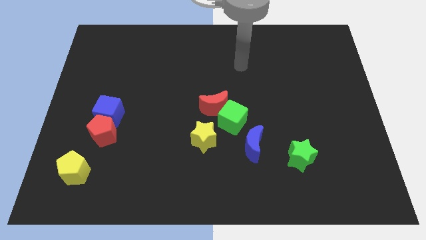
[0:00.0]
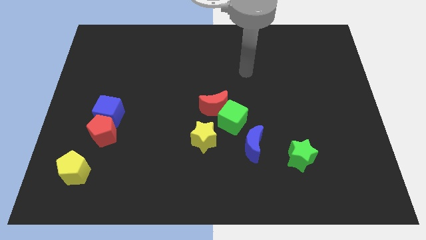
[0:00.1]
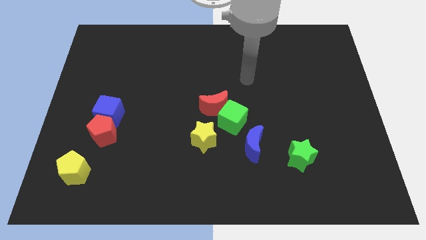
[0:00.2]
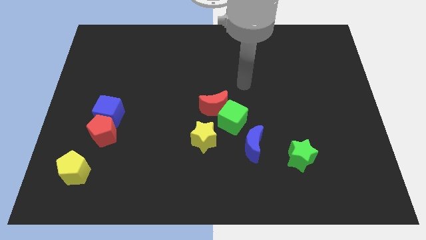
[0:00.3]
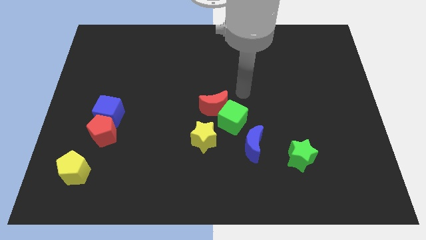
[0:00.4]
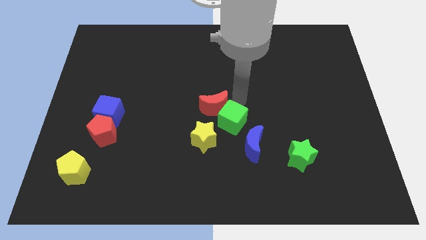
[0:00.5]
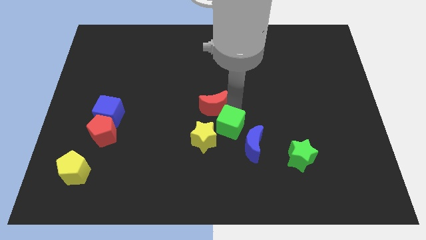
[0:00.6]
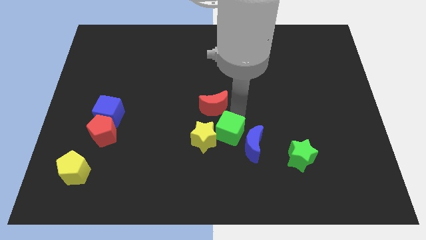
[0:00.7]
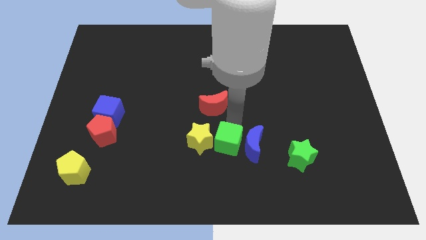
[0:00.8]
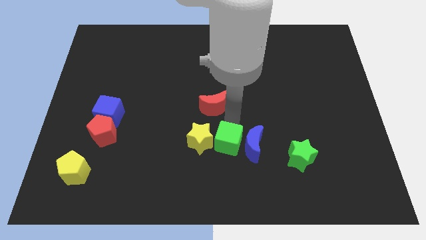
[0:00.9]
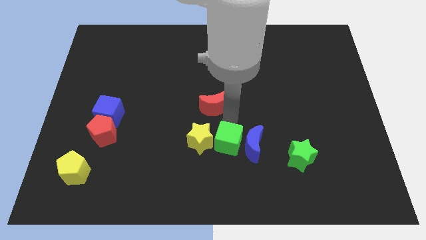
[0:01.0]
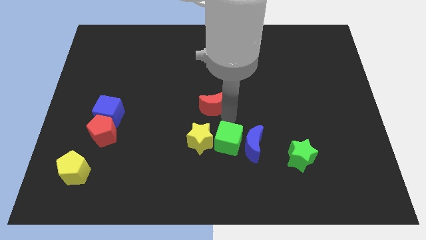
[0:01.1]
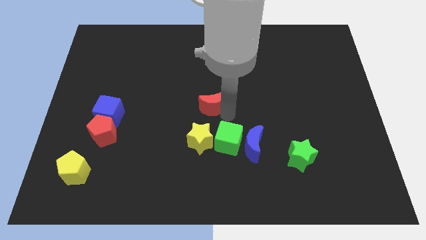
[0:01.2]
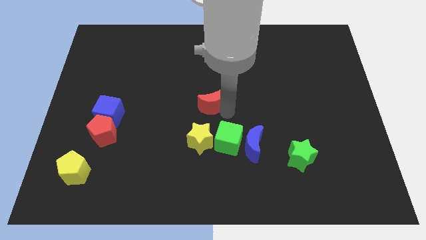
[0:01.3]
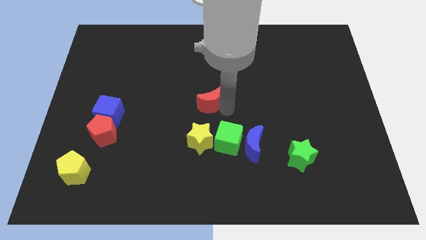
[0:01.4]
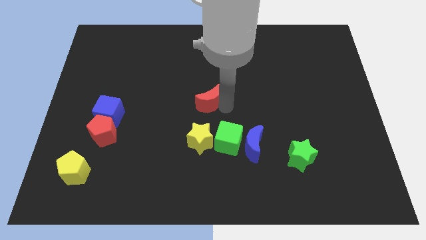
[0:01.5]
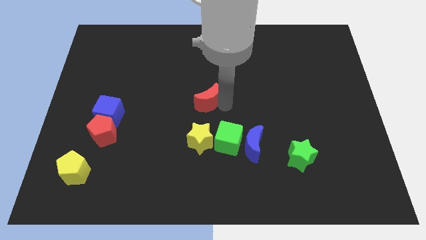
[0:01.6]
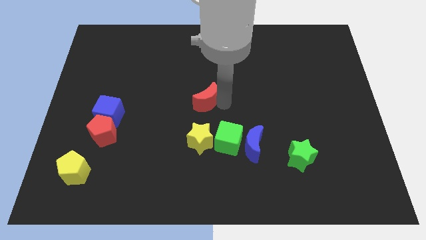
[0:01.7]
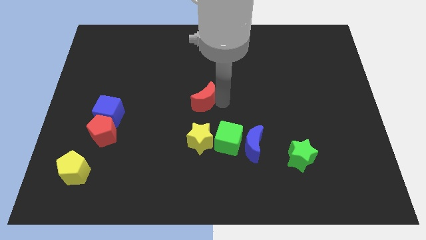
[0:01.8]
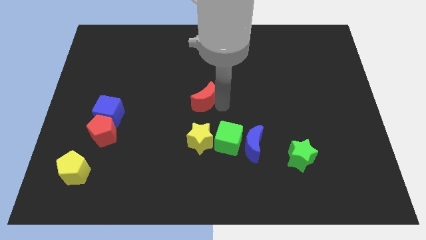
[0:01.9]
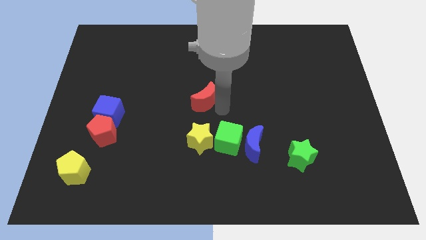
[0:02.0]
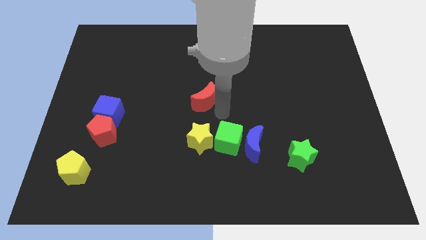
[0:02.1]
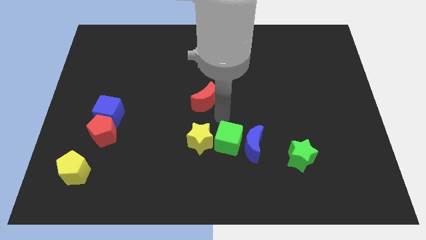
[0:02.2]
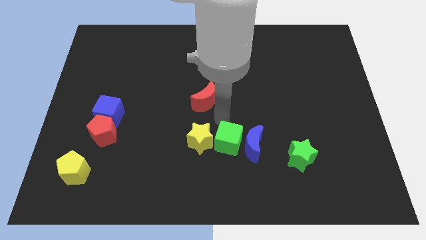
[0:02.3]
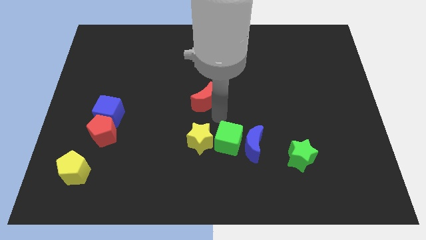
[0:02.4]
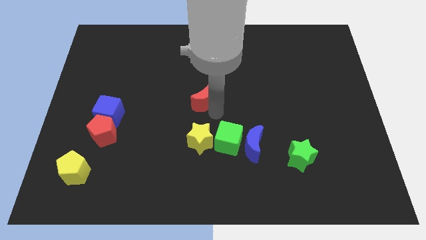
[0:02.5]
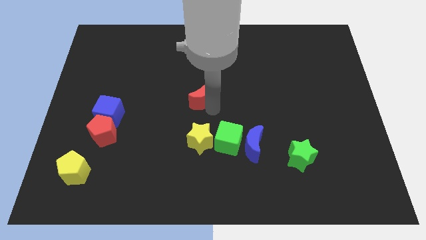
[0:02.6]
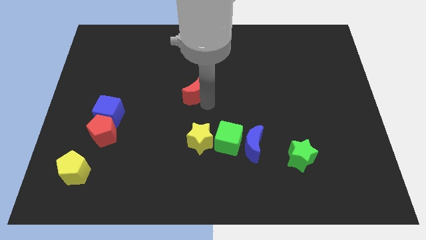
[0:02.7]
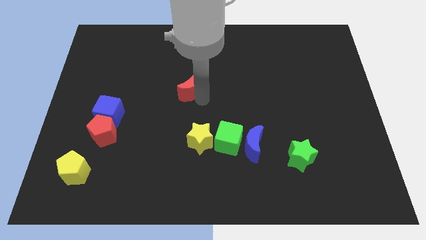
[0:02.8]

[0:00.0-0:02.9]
slide the red moon upwards and left diagonally a little bit

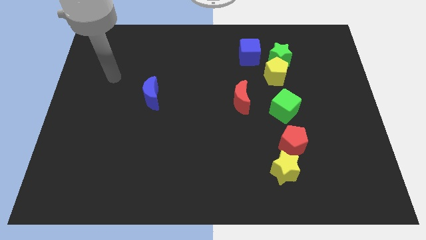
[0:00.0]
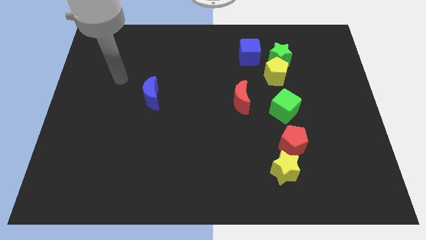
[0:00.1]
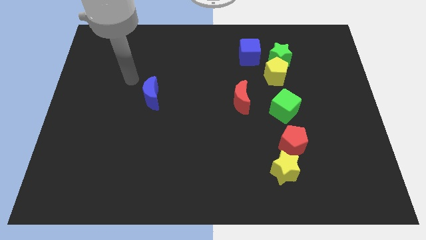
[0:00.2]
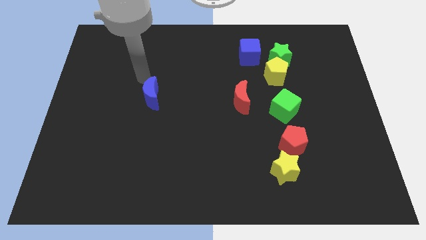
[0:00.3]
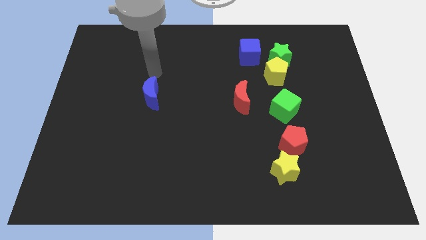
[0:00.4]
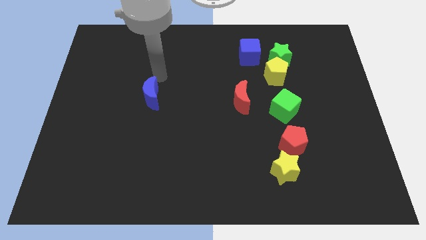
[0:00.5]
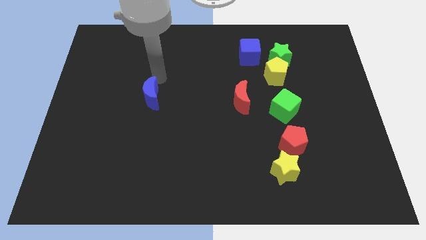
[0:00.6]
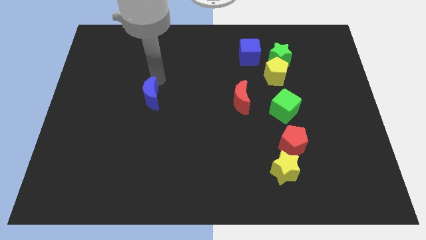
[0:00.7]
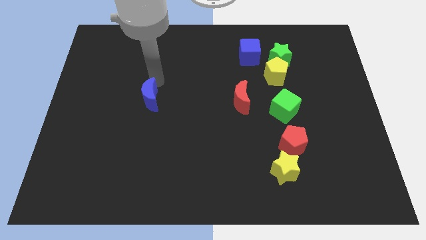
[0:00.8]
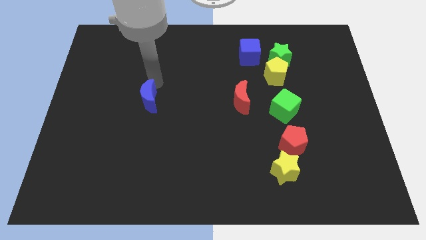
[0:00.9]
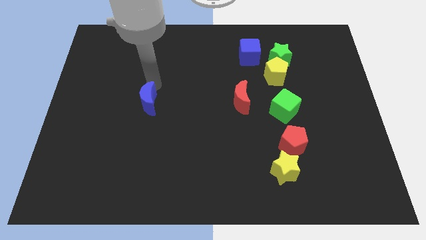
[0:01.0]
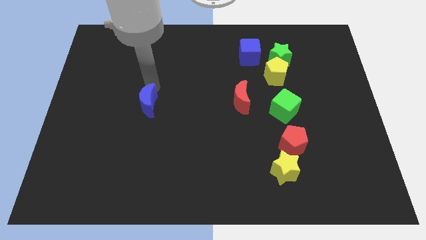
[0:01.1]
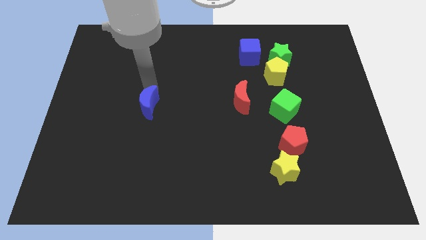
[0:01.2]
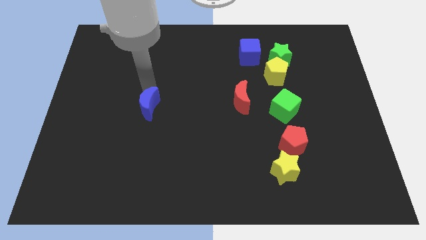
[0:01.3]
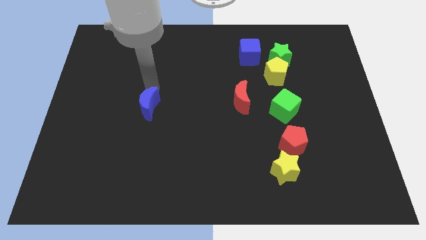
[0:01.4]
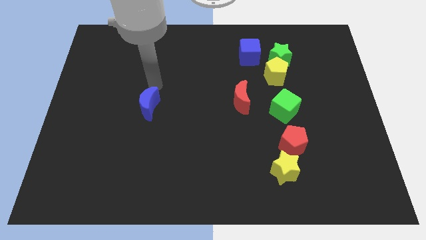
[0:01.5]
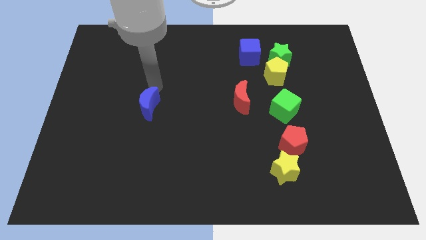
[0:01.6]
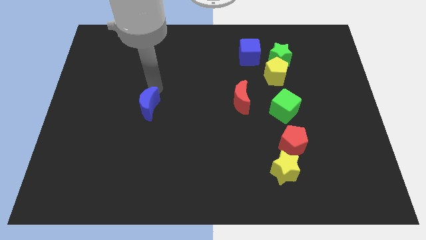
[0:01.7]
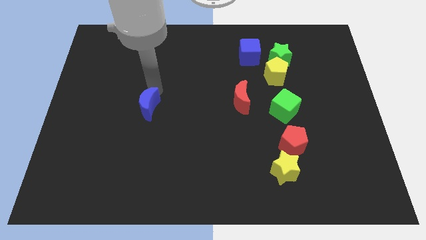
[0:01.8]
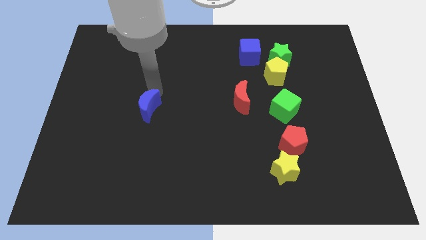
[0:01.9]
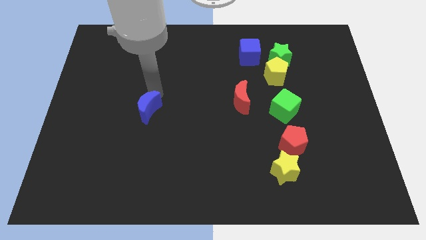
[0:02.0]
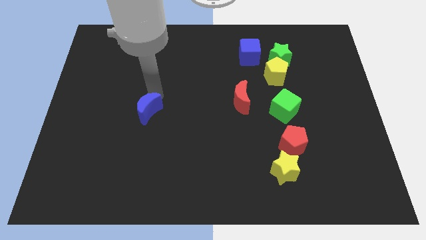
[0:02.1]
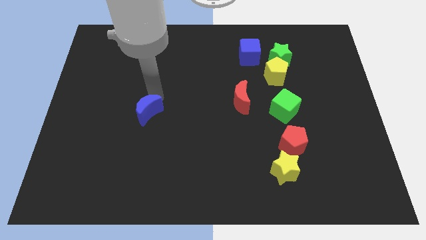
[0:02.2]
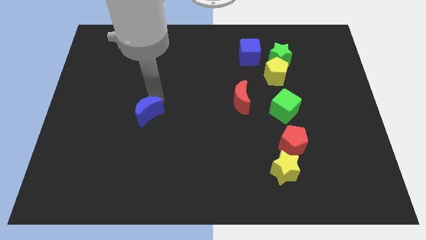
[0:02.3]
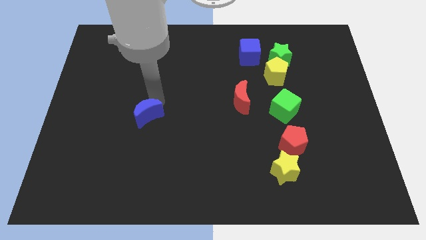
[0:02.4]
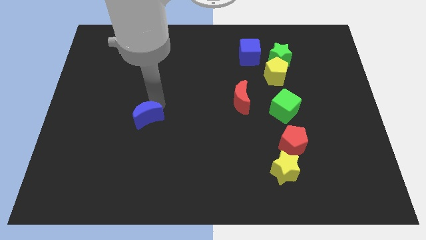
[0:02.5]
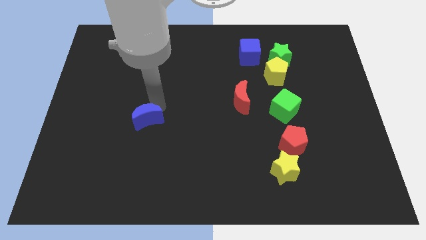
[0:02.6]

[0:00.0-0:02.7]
slightly move the blue moon down

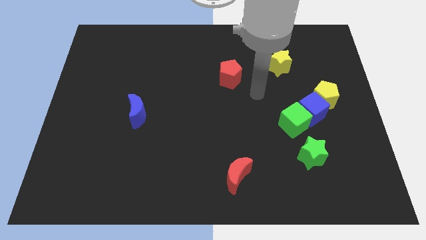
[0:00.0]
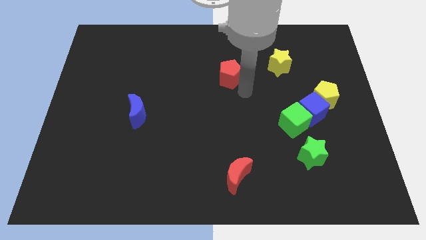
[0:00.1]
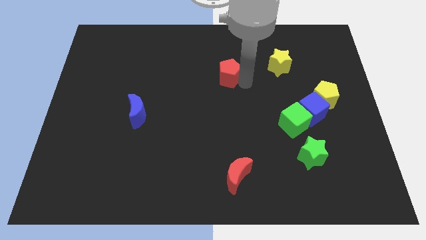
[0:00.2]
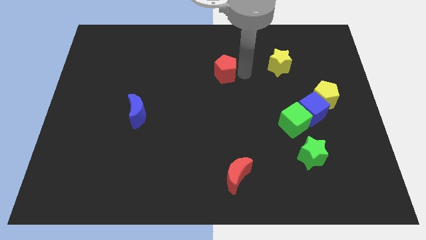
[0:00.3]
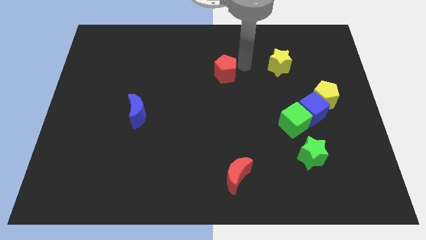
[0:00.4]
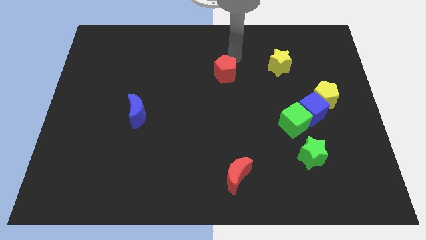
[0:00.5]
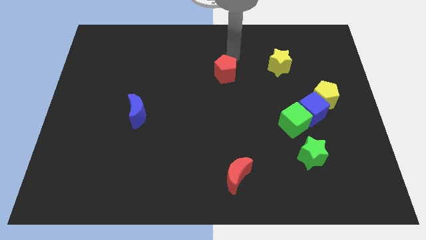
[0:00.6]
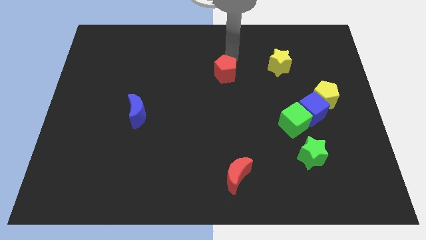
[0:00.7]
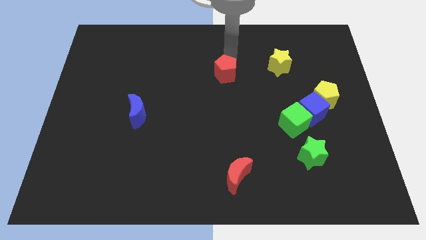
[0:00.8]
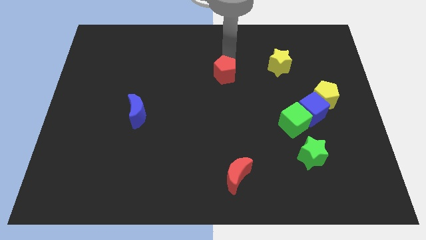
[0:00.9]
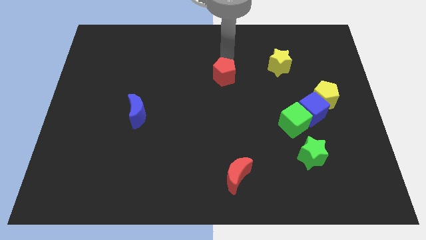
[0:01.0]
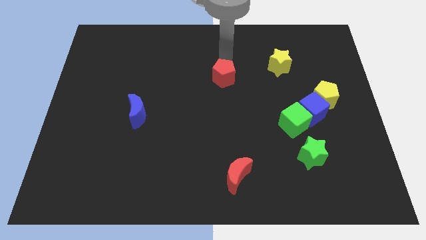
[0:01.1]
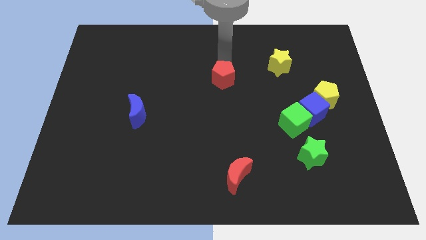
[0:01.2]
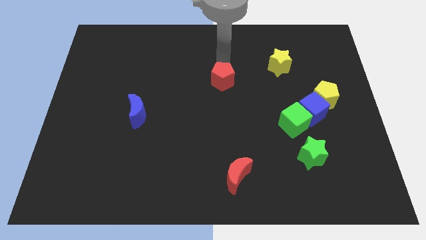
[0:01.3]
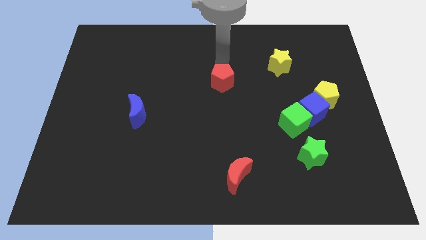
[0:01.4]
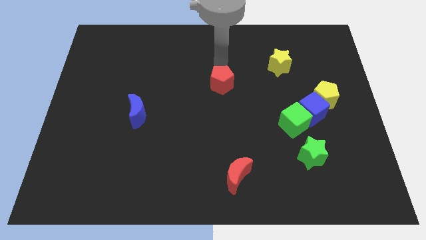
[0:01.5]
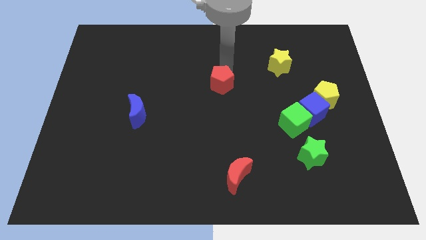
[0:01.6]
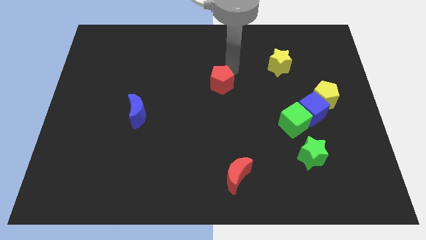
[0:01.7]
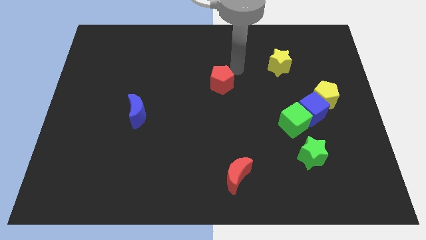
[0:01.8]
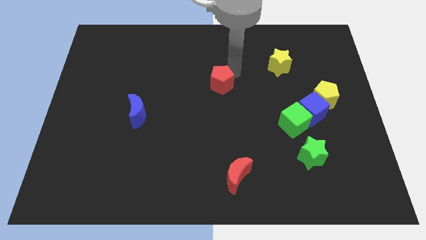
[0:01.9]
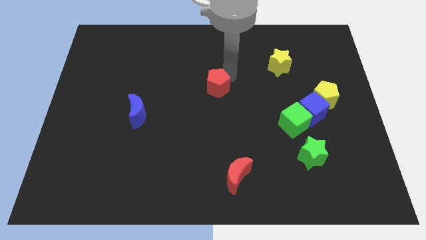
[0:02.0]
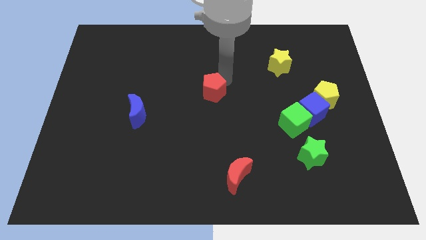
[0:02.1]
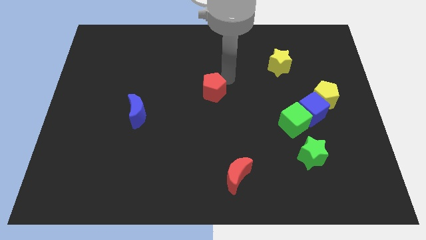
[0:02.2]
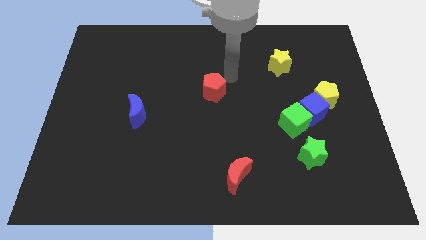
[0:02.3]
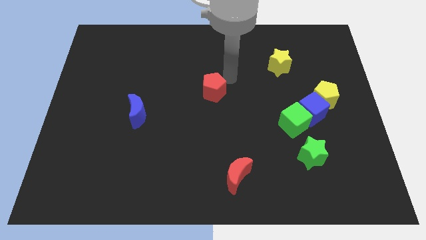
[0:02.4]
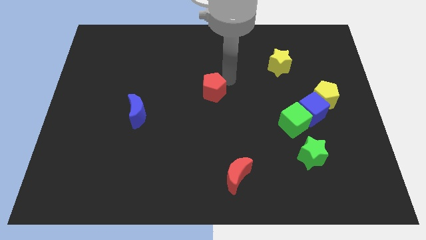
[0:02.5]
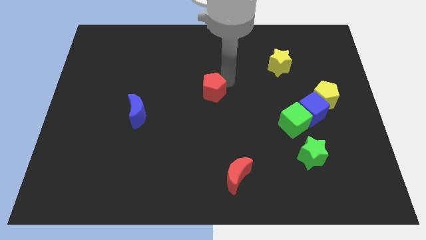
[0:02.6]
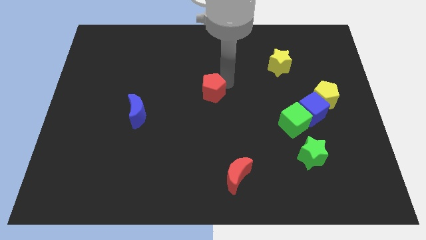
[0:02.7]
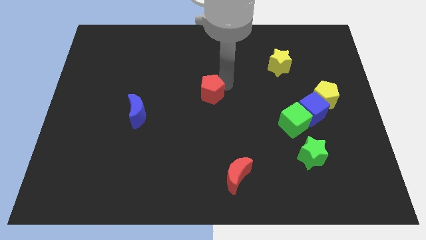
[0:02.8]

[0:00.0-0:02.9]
slightly move the red pentagon down and to the left diagonally
